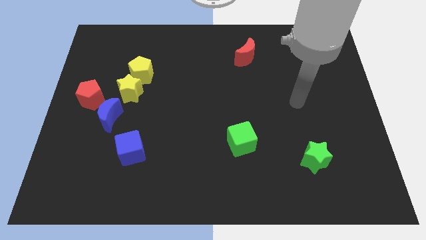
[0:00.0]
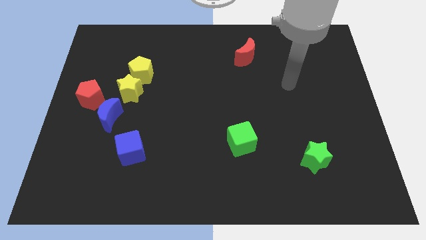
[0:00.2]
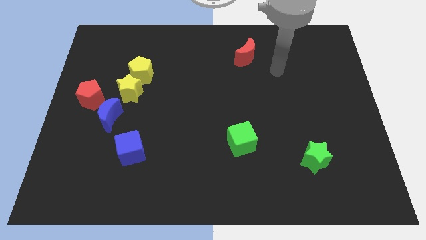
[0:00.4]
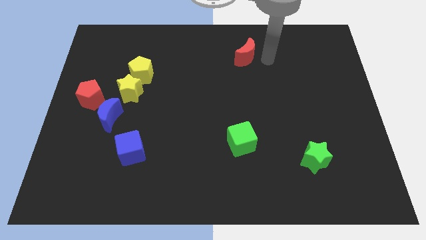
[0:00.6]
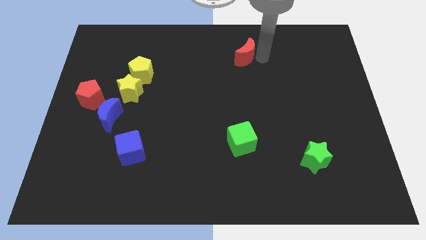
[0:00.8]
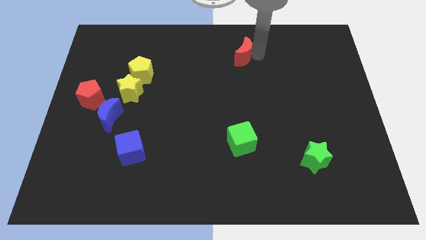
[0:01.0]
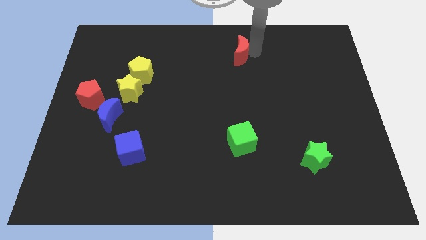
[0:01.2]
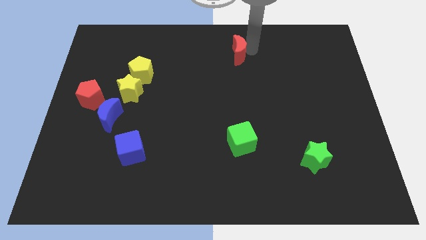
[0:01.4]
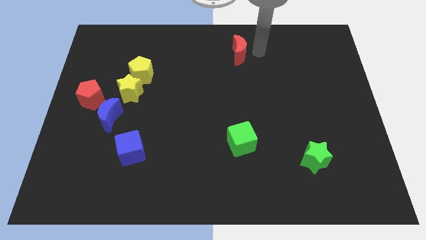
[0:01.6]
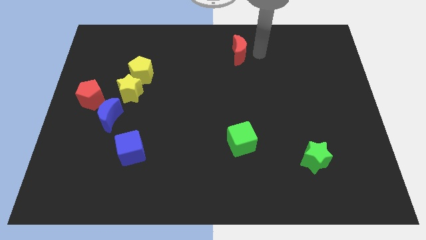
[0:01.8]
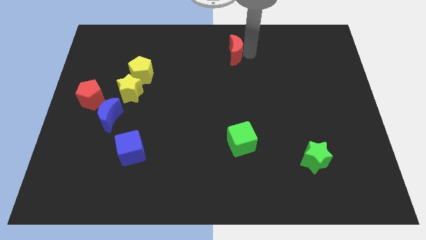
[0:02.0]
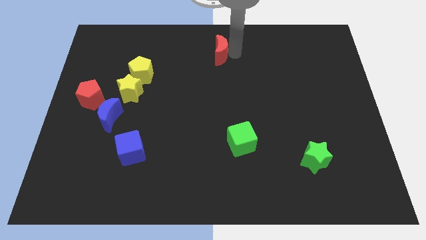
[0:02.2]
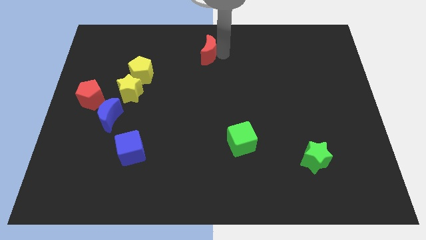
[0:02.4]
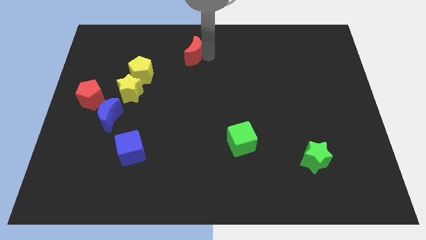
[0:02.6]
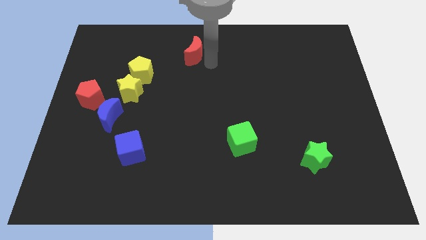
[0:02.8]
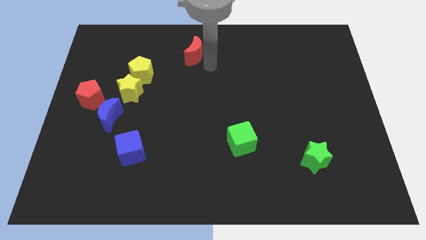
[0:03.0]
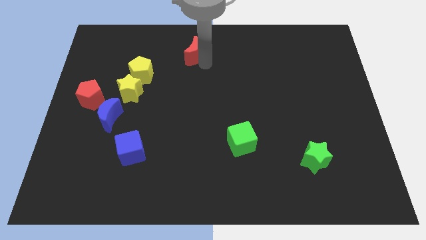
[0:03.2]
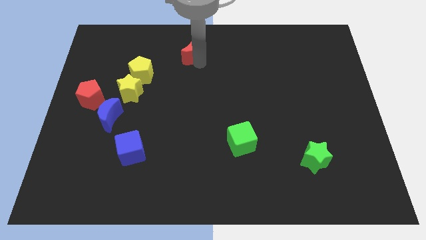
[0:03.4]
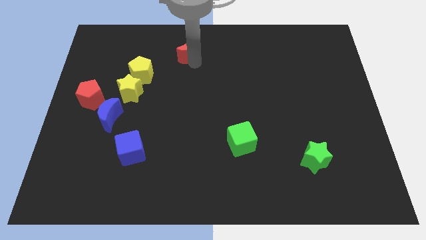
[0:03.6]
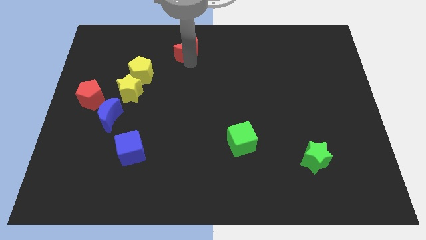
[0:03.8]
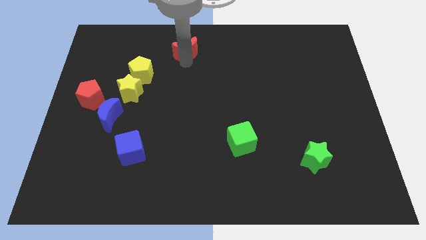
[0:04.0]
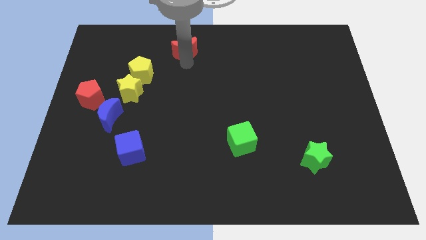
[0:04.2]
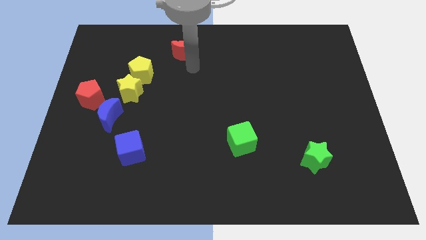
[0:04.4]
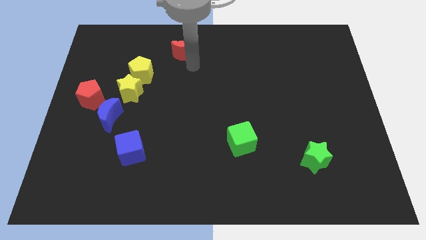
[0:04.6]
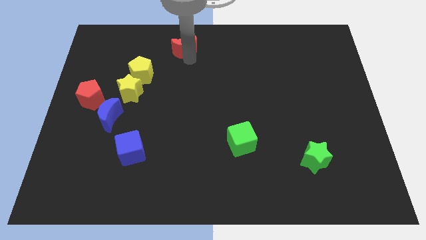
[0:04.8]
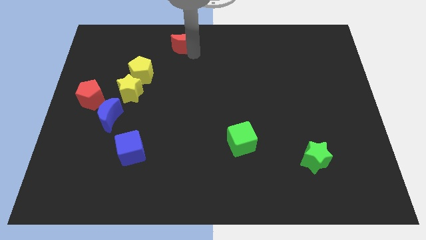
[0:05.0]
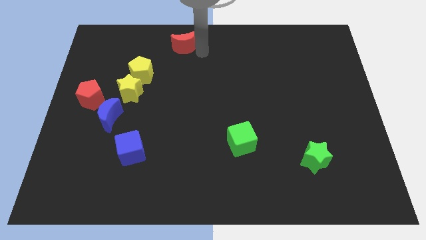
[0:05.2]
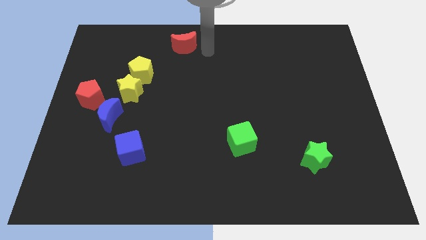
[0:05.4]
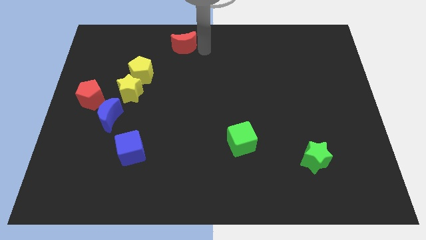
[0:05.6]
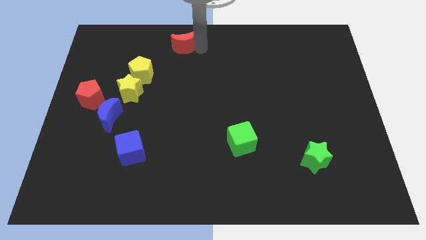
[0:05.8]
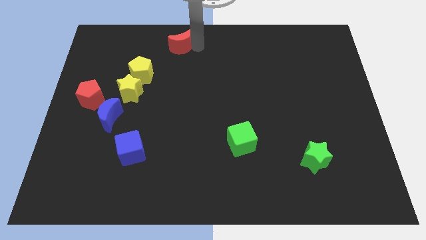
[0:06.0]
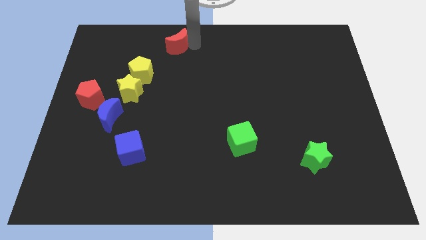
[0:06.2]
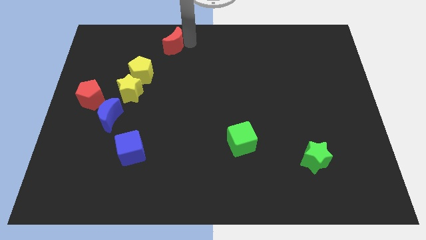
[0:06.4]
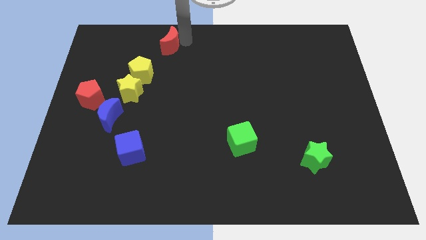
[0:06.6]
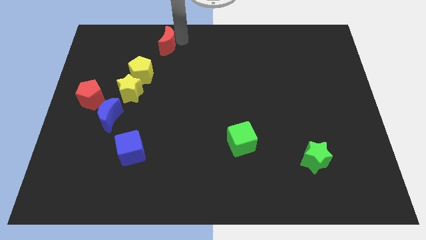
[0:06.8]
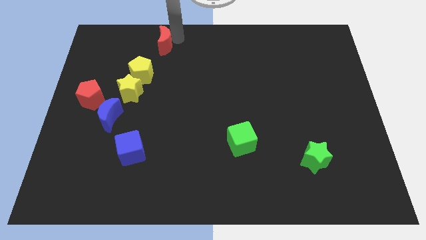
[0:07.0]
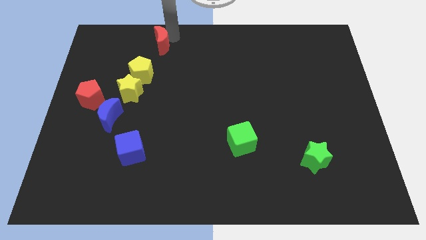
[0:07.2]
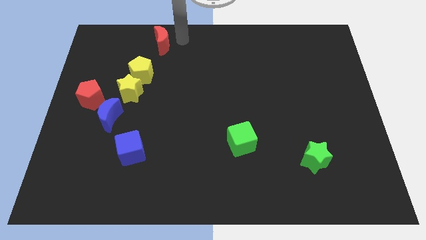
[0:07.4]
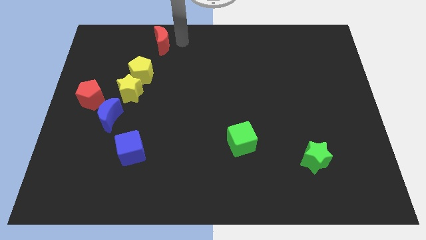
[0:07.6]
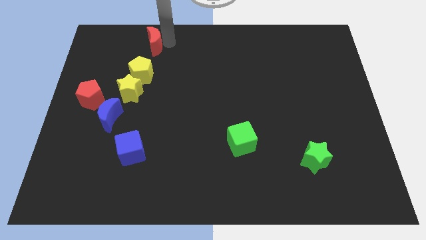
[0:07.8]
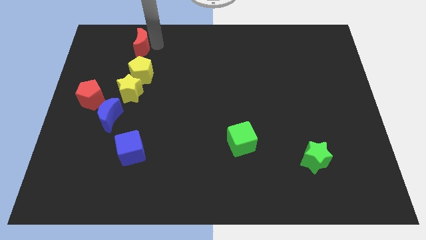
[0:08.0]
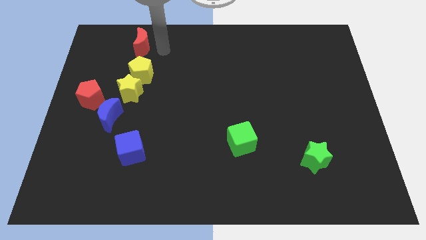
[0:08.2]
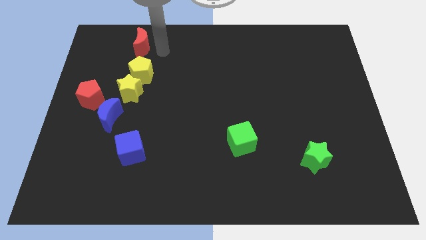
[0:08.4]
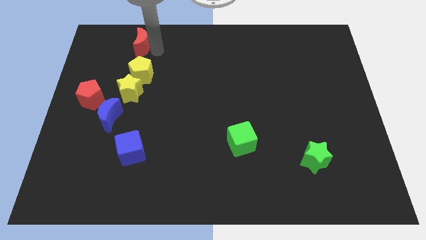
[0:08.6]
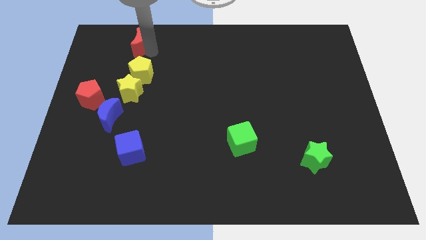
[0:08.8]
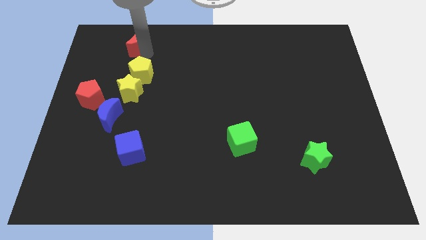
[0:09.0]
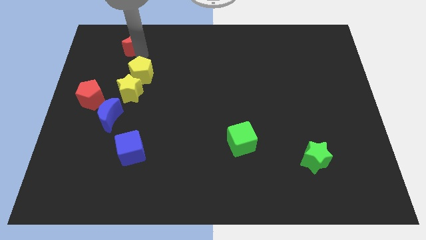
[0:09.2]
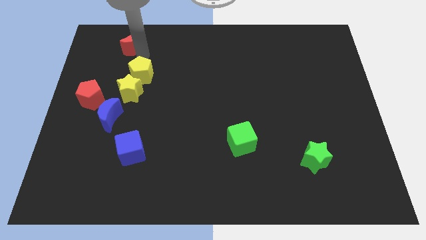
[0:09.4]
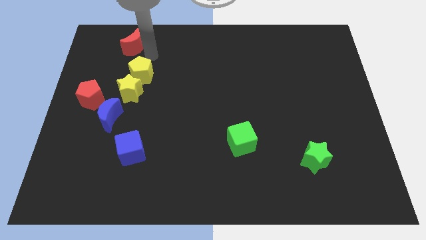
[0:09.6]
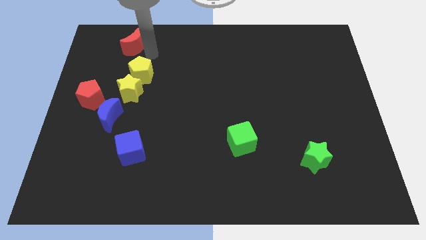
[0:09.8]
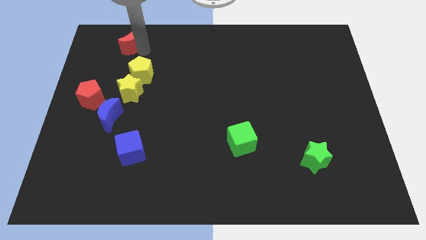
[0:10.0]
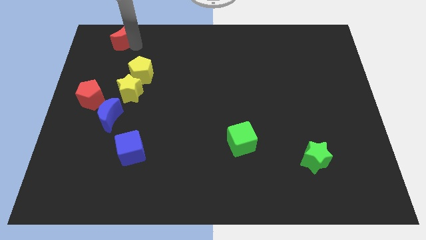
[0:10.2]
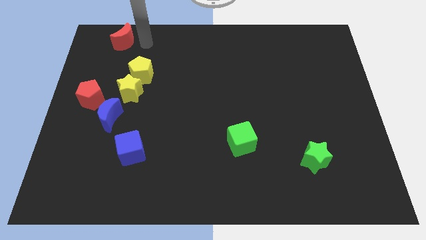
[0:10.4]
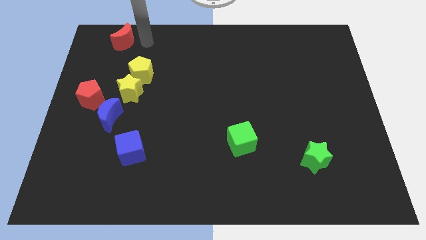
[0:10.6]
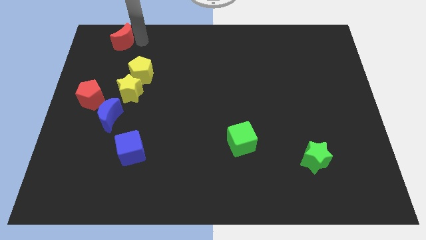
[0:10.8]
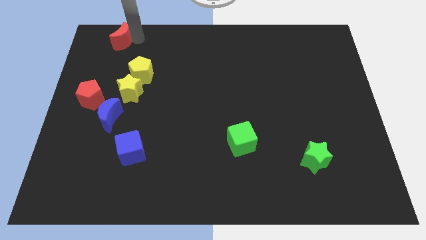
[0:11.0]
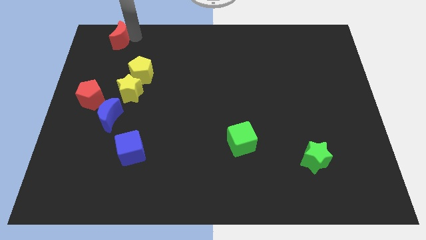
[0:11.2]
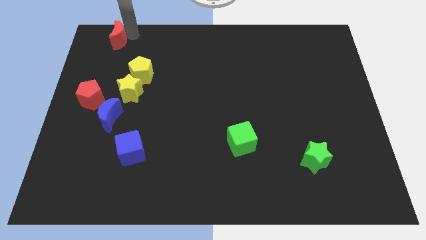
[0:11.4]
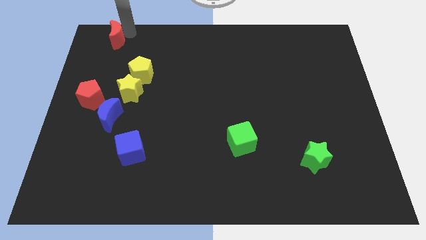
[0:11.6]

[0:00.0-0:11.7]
push the red moon to the top left

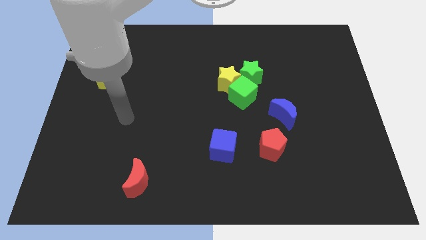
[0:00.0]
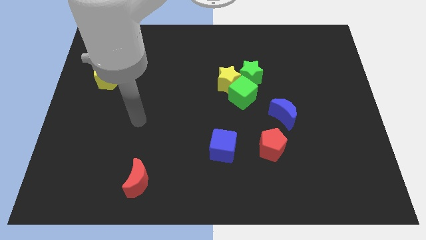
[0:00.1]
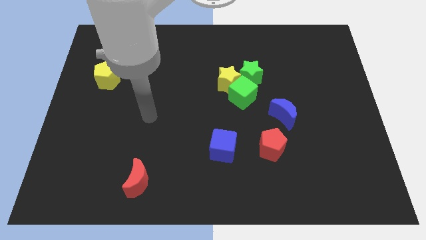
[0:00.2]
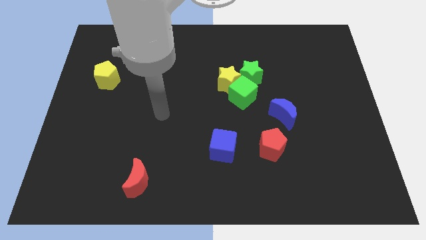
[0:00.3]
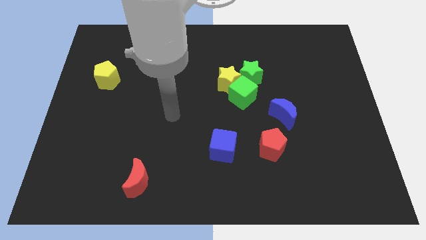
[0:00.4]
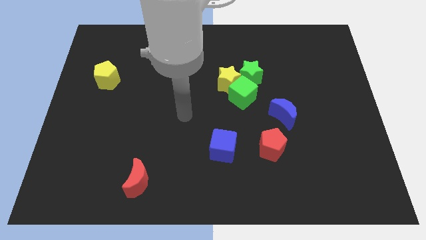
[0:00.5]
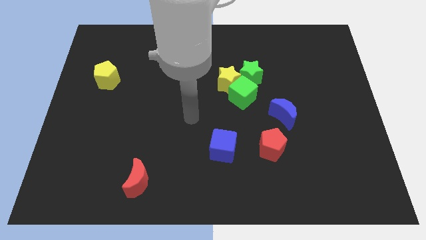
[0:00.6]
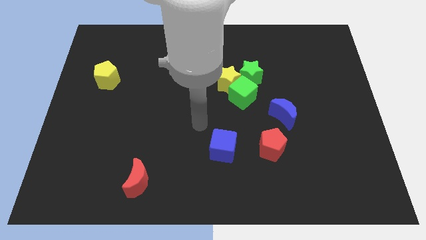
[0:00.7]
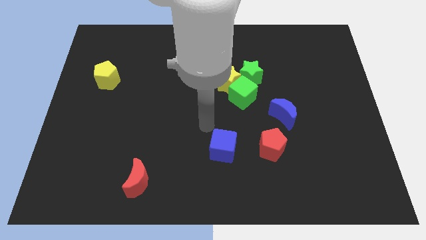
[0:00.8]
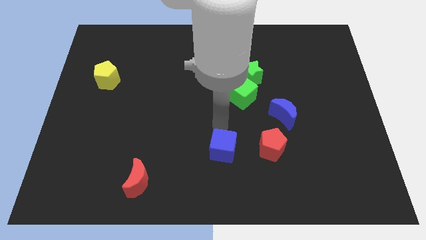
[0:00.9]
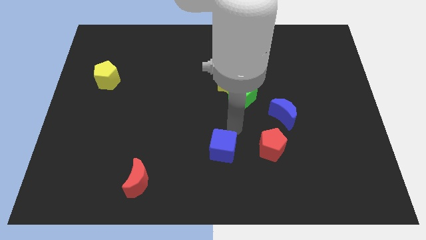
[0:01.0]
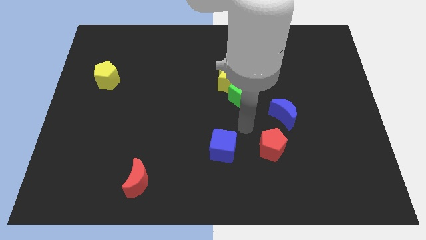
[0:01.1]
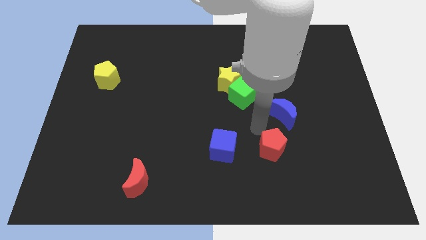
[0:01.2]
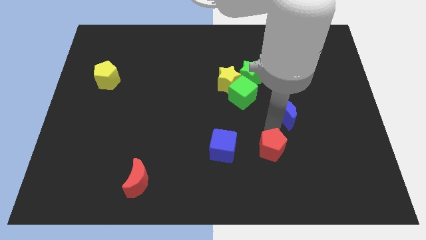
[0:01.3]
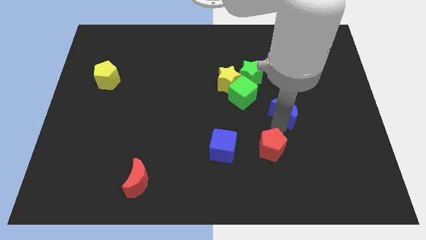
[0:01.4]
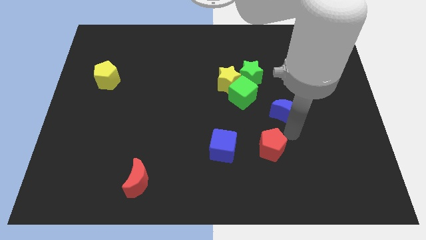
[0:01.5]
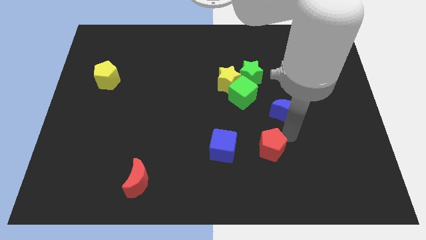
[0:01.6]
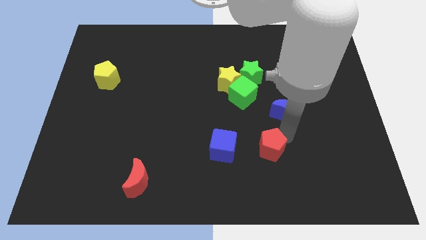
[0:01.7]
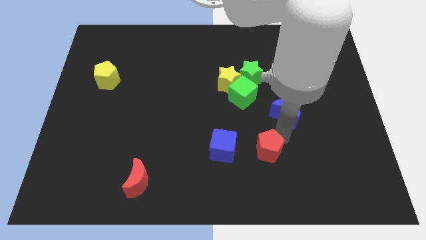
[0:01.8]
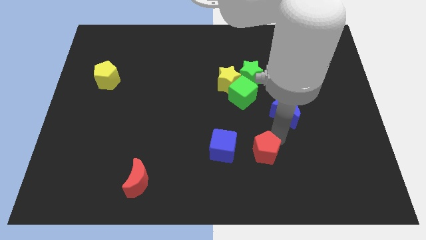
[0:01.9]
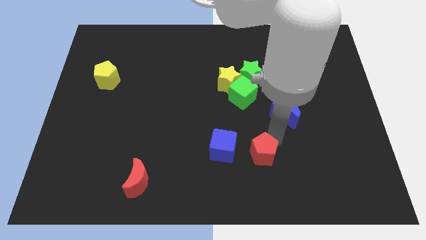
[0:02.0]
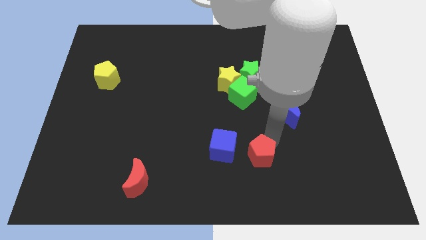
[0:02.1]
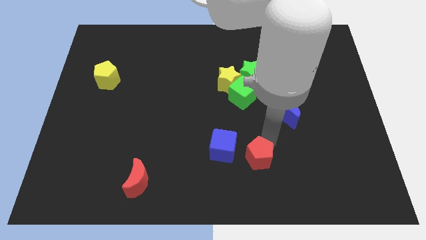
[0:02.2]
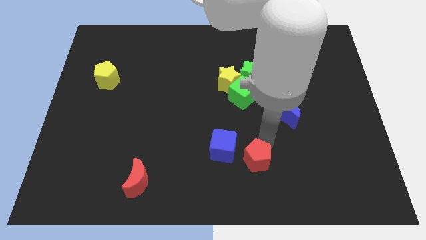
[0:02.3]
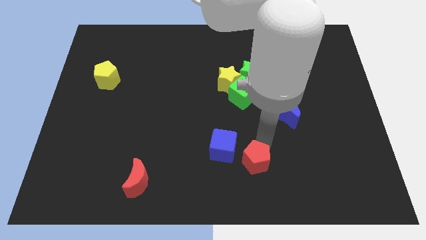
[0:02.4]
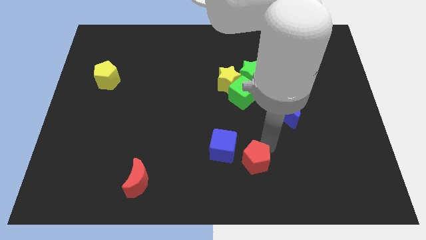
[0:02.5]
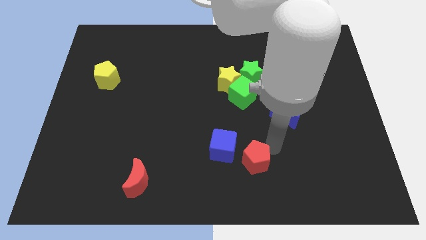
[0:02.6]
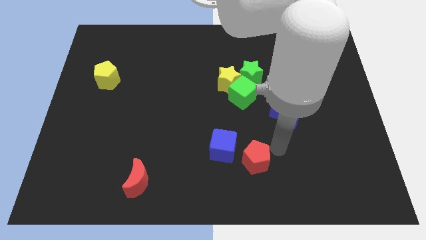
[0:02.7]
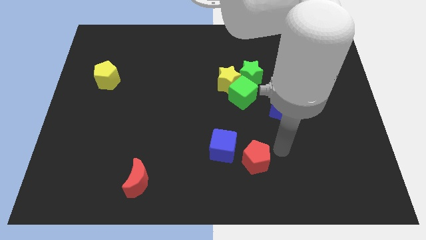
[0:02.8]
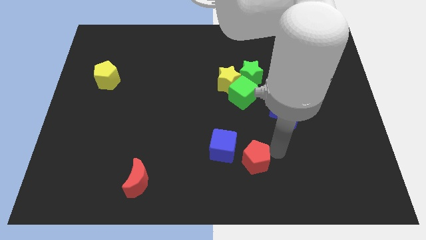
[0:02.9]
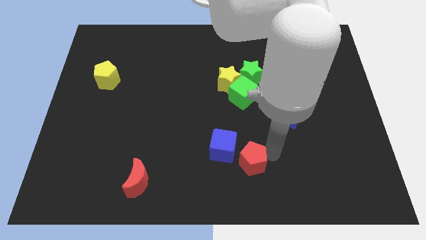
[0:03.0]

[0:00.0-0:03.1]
slide the red pentagon to the bottom
